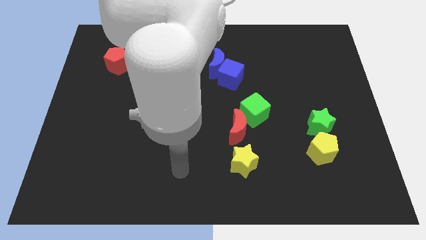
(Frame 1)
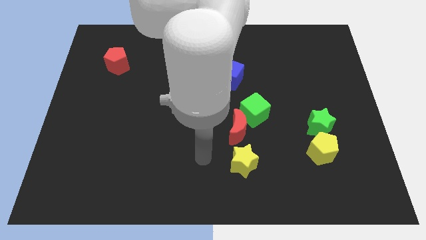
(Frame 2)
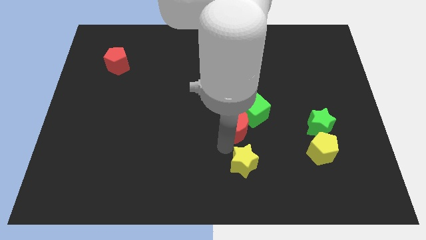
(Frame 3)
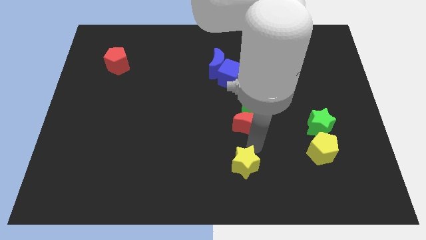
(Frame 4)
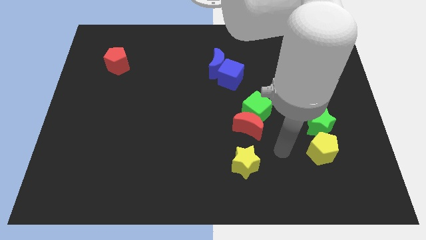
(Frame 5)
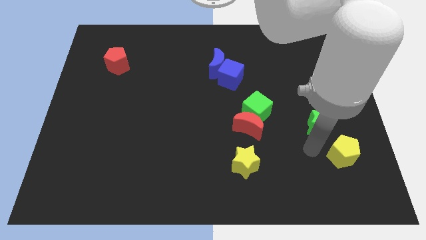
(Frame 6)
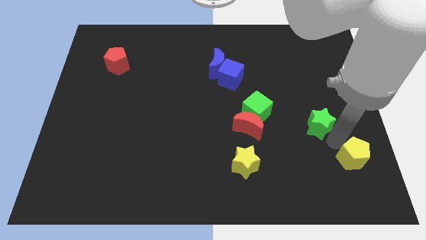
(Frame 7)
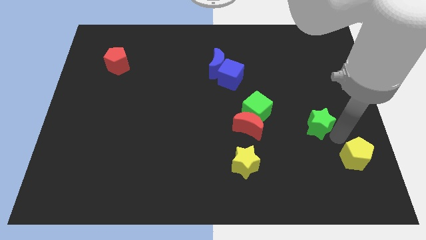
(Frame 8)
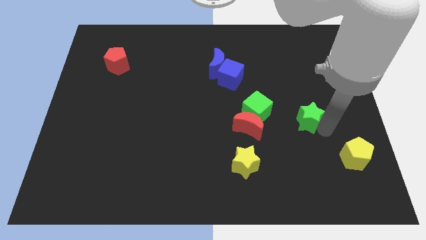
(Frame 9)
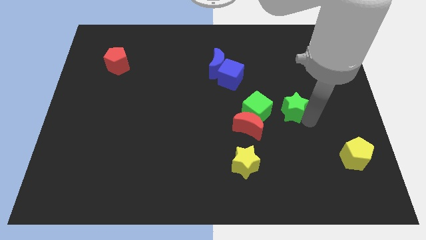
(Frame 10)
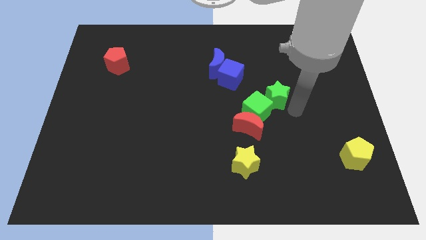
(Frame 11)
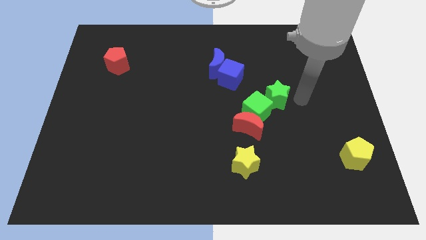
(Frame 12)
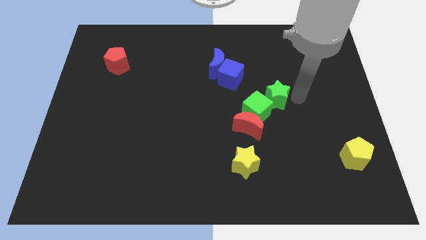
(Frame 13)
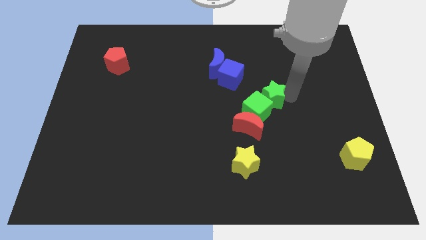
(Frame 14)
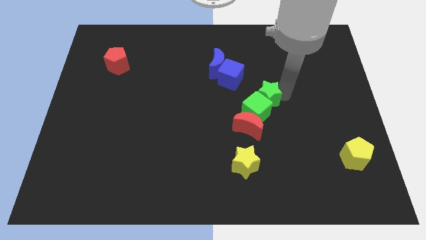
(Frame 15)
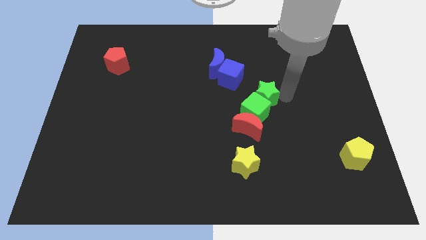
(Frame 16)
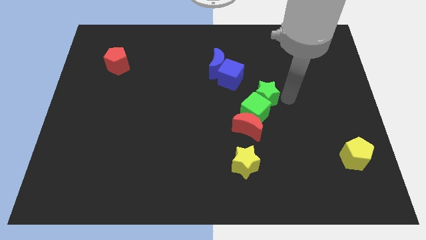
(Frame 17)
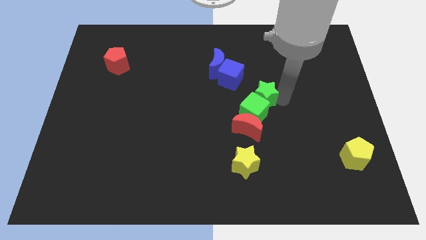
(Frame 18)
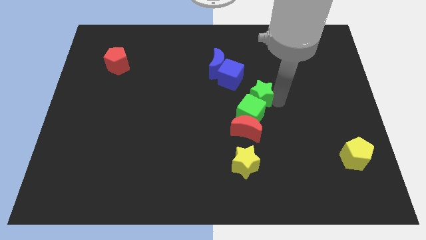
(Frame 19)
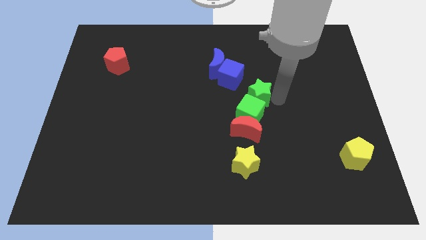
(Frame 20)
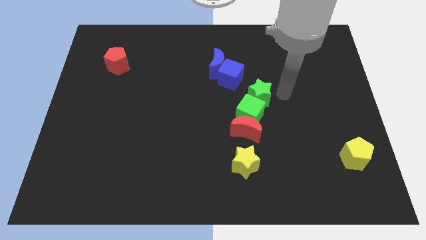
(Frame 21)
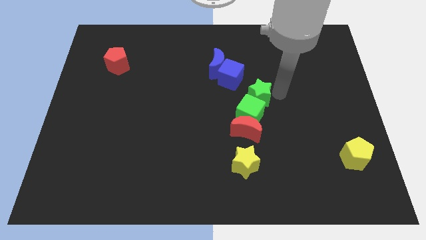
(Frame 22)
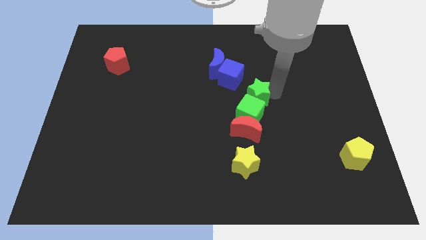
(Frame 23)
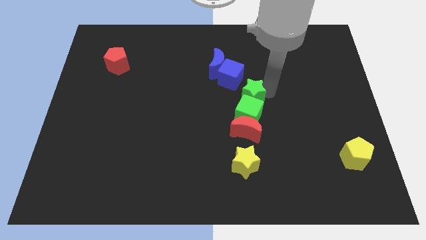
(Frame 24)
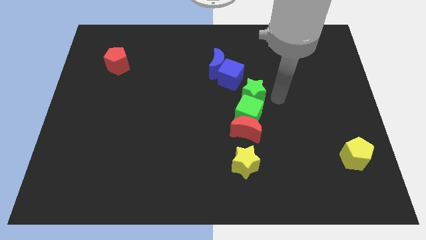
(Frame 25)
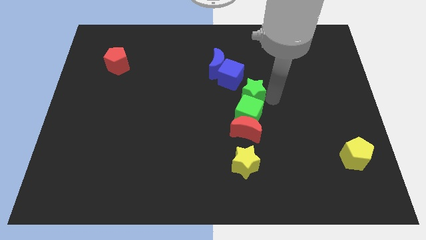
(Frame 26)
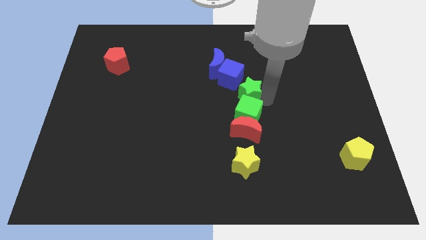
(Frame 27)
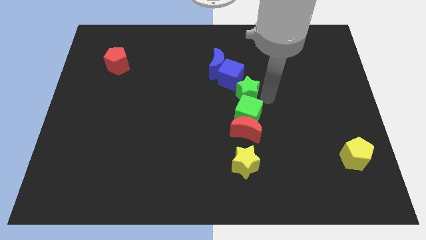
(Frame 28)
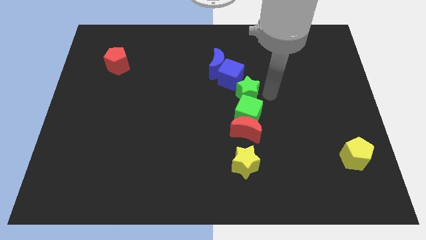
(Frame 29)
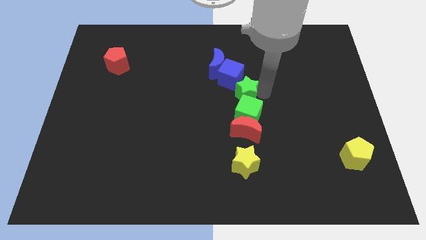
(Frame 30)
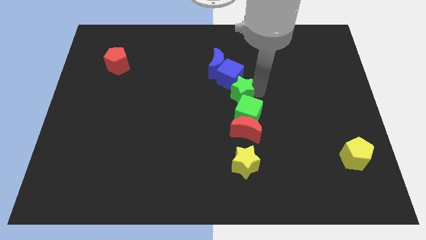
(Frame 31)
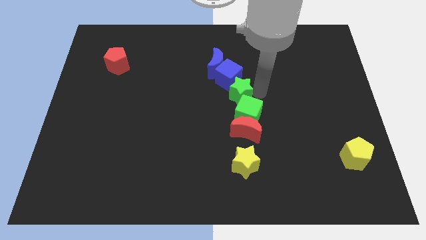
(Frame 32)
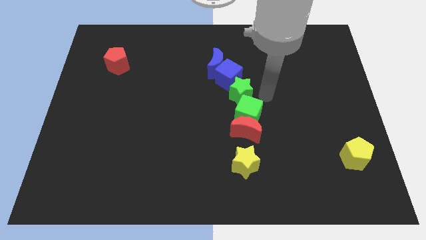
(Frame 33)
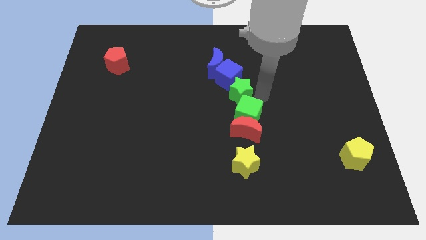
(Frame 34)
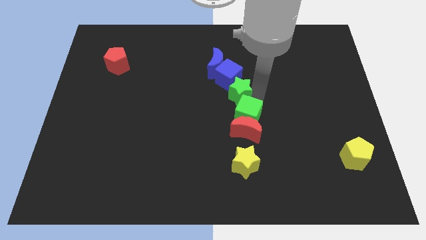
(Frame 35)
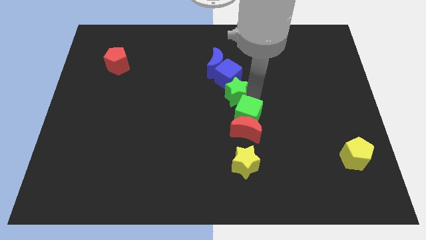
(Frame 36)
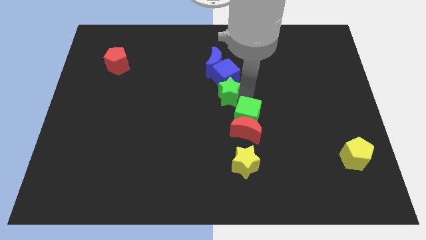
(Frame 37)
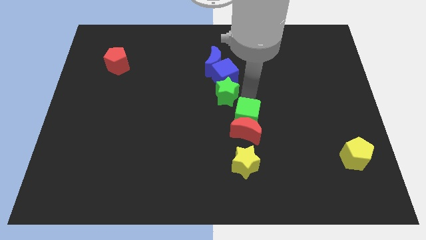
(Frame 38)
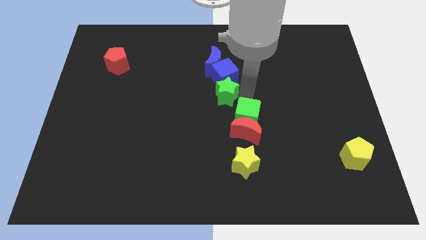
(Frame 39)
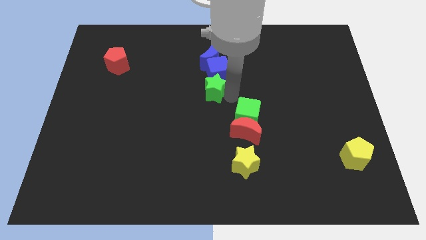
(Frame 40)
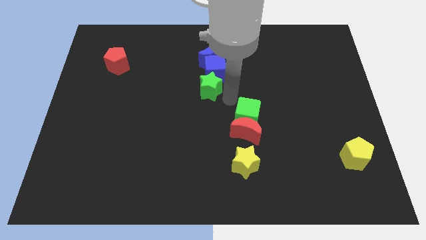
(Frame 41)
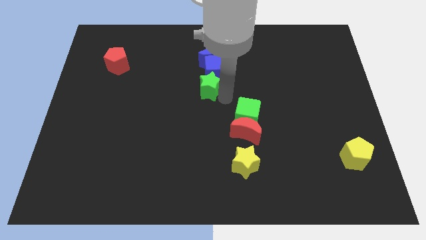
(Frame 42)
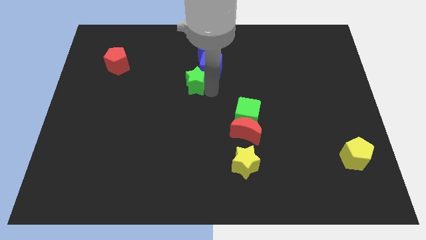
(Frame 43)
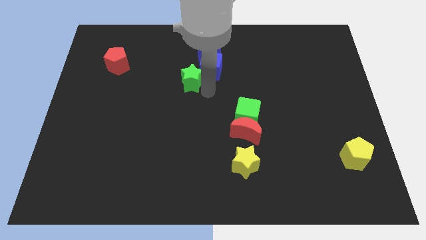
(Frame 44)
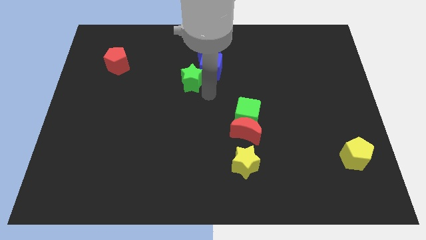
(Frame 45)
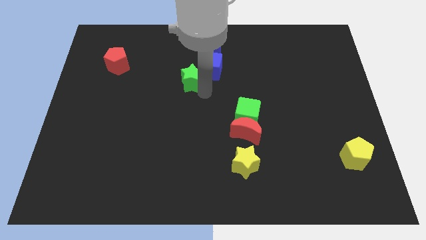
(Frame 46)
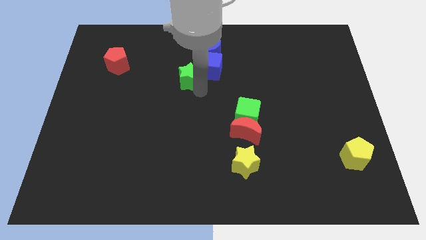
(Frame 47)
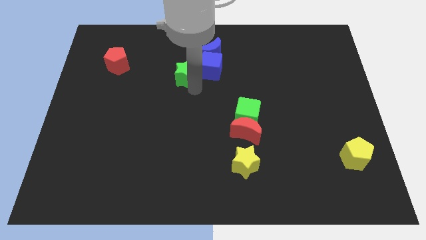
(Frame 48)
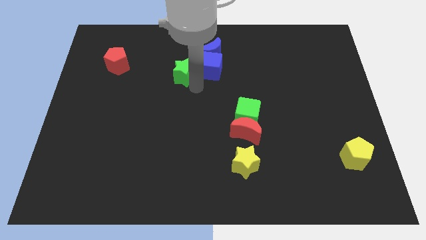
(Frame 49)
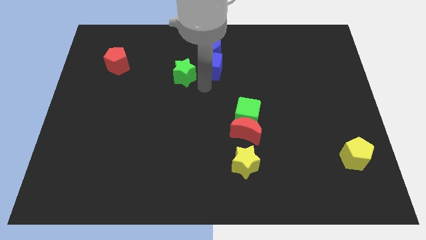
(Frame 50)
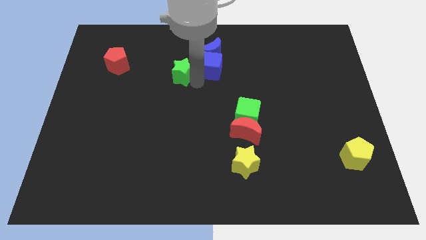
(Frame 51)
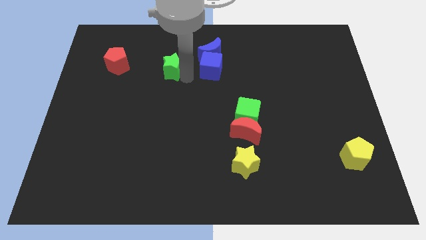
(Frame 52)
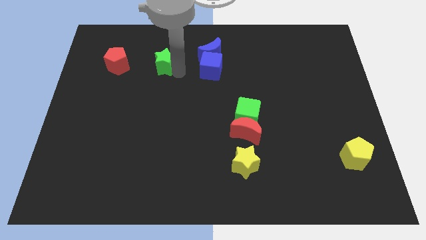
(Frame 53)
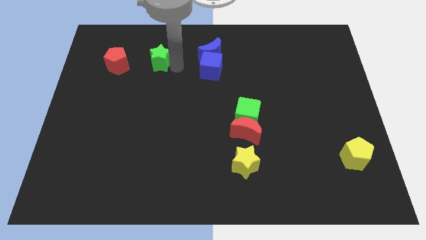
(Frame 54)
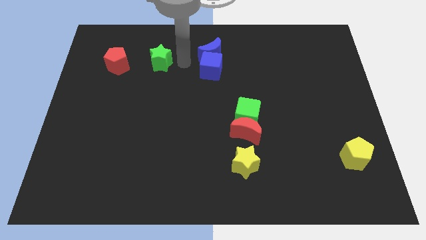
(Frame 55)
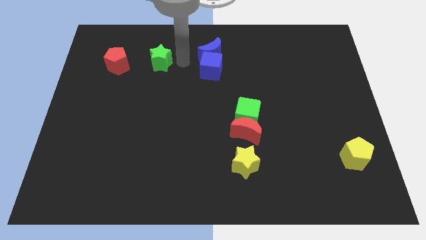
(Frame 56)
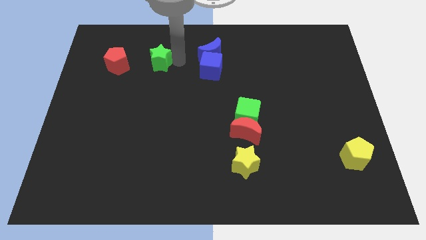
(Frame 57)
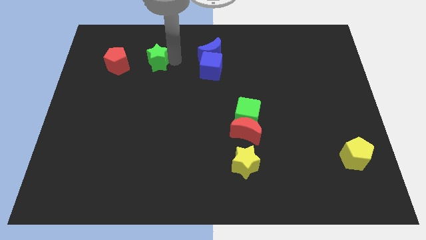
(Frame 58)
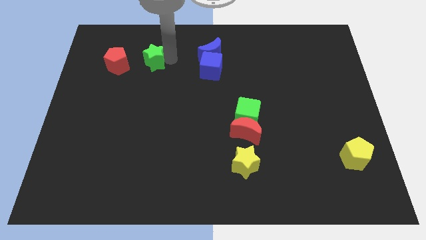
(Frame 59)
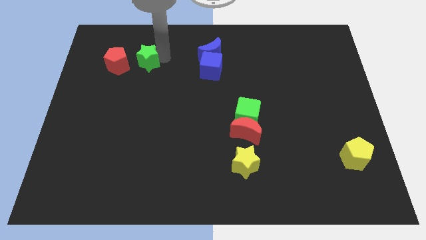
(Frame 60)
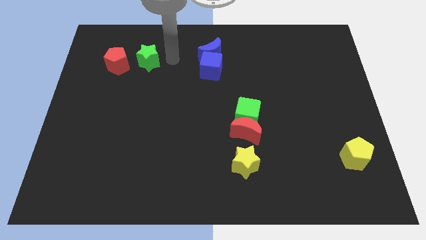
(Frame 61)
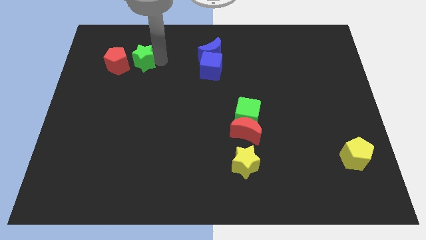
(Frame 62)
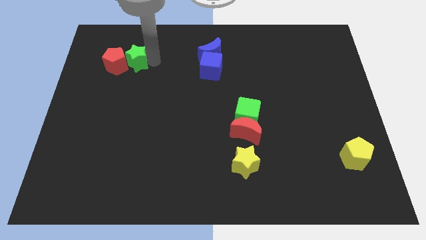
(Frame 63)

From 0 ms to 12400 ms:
slide the green star close to the red pentagon

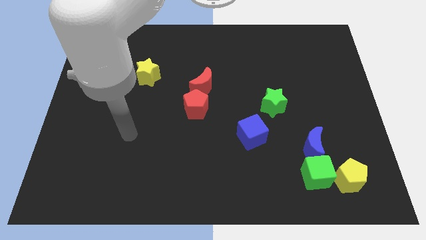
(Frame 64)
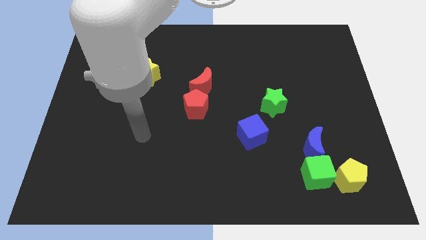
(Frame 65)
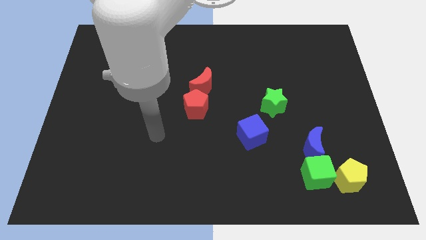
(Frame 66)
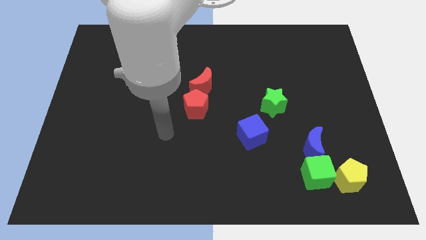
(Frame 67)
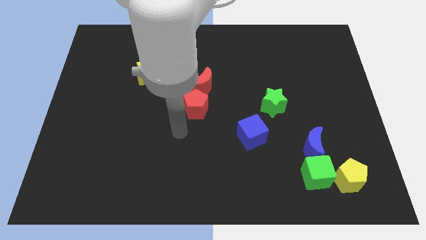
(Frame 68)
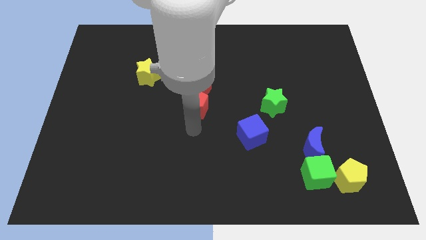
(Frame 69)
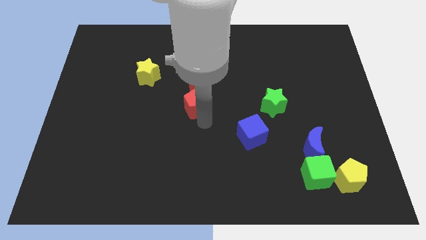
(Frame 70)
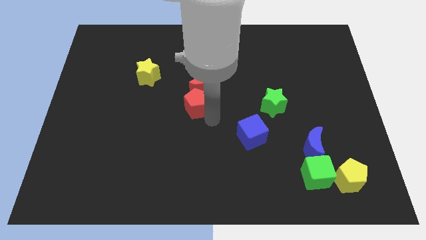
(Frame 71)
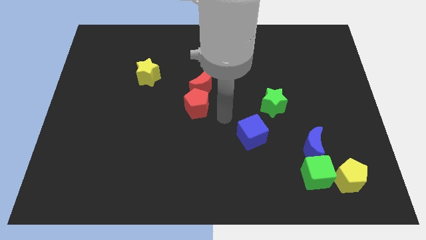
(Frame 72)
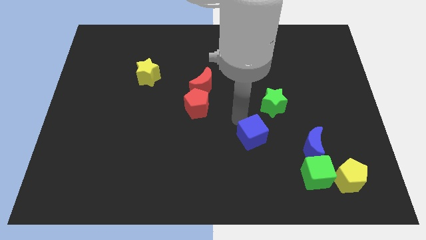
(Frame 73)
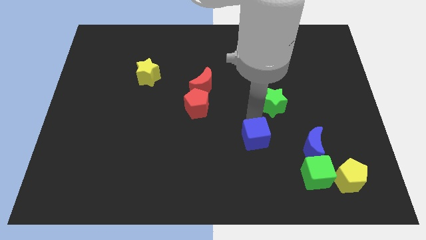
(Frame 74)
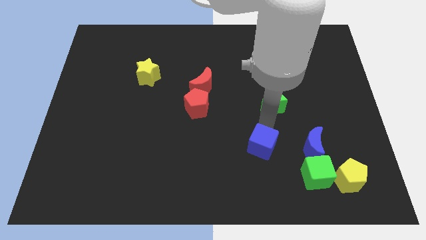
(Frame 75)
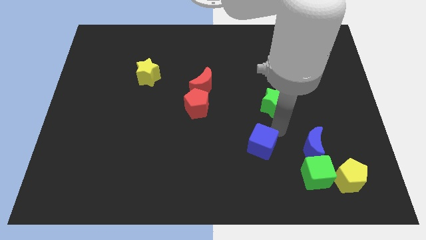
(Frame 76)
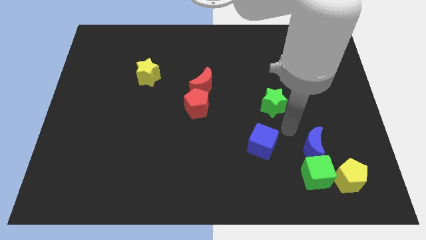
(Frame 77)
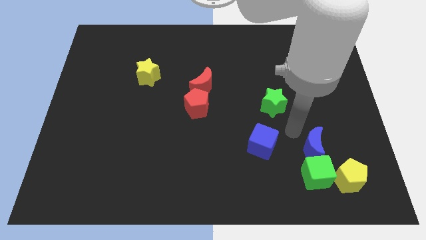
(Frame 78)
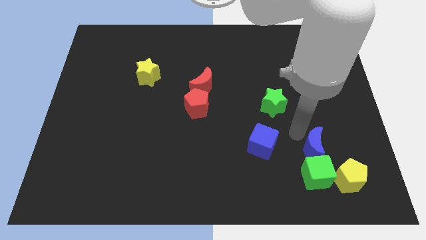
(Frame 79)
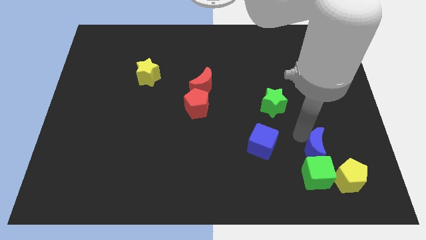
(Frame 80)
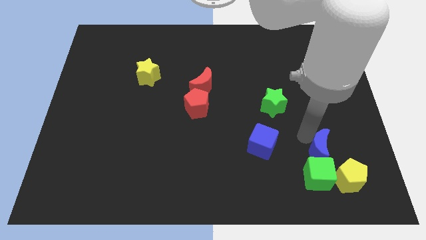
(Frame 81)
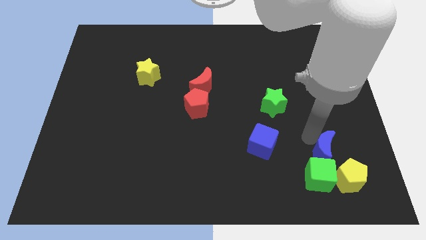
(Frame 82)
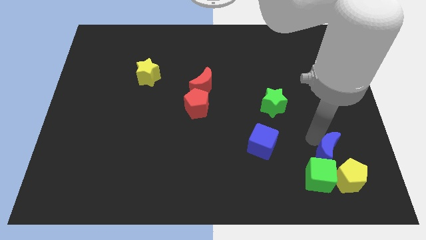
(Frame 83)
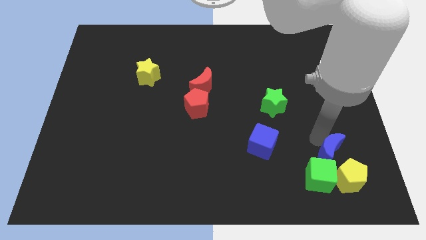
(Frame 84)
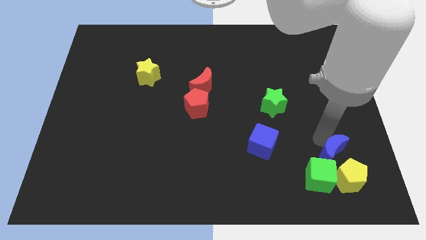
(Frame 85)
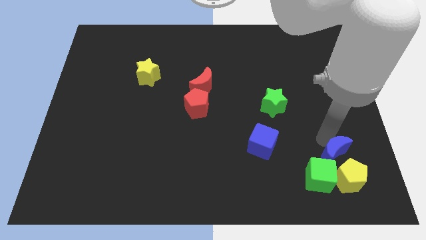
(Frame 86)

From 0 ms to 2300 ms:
slide the blue moon towards the yellow pentagon
